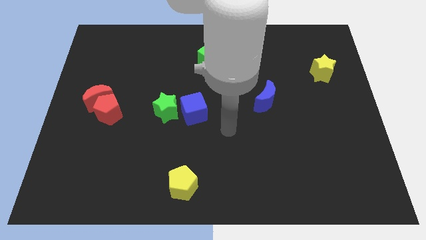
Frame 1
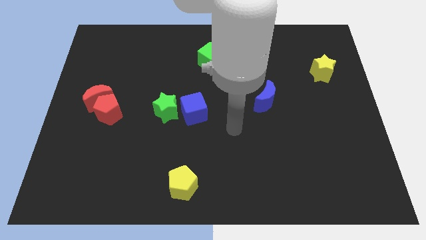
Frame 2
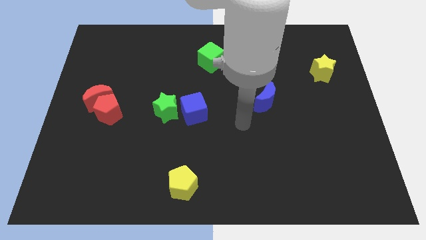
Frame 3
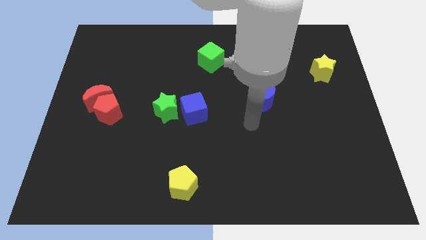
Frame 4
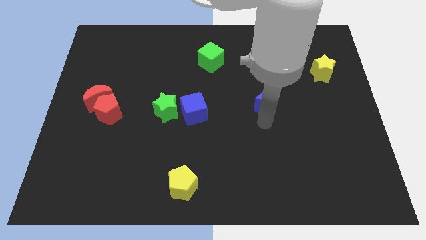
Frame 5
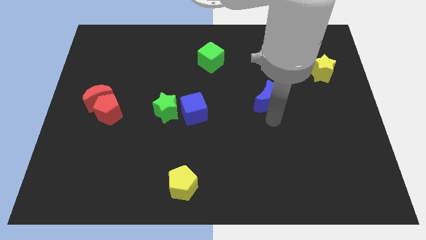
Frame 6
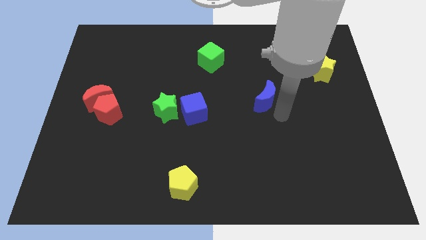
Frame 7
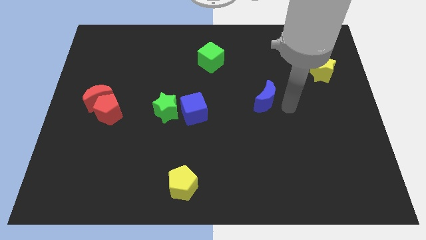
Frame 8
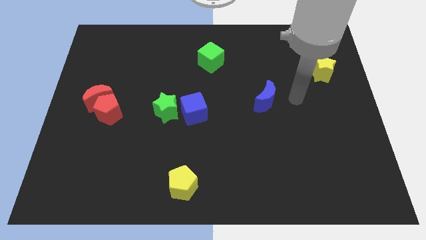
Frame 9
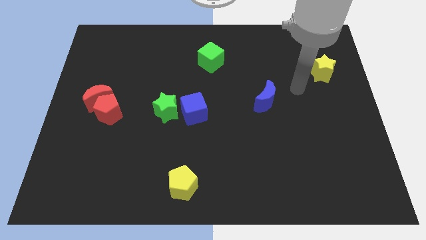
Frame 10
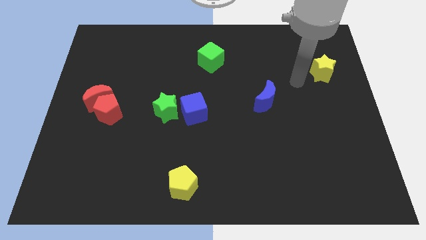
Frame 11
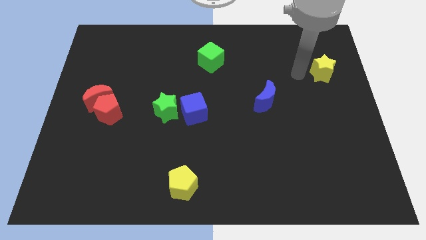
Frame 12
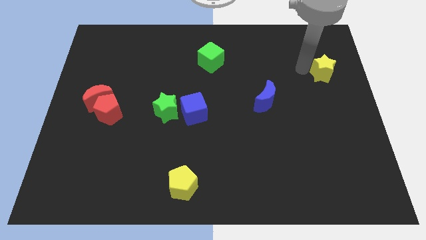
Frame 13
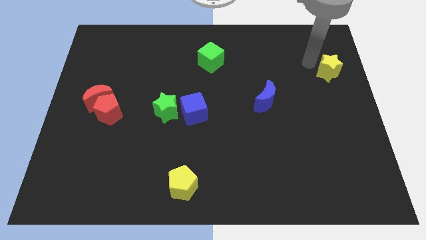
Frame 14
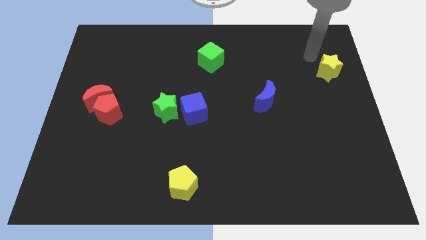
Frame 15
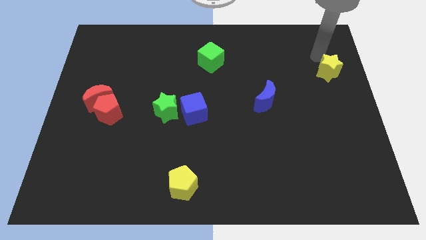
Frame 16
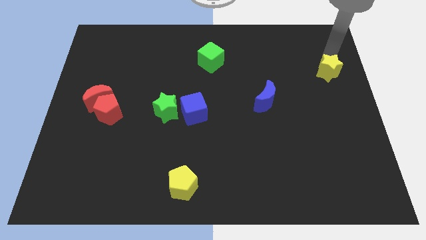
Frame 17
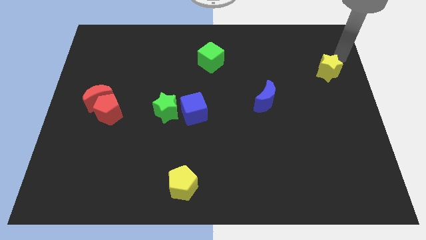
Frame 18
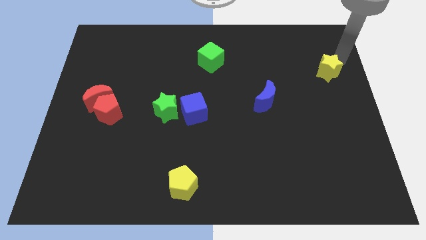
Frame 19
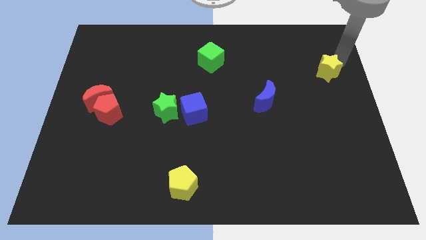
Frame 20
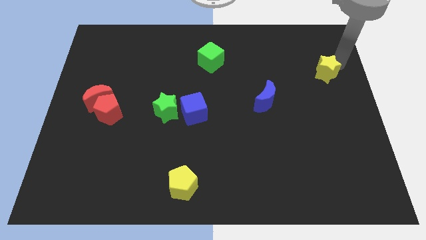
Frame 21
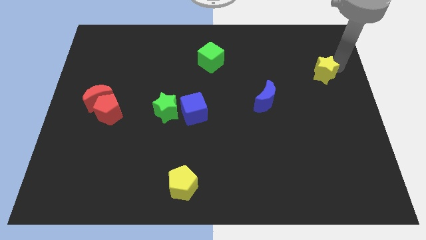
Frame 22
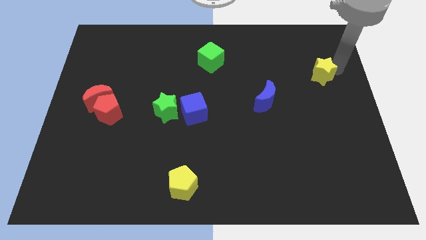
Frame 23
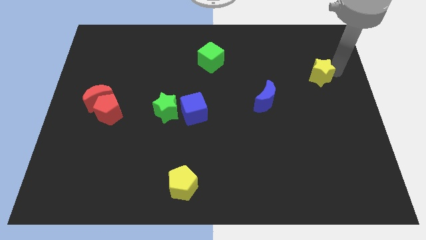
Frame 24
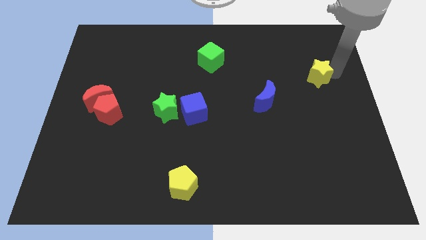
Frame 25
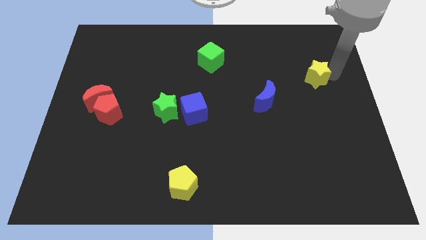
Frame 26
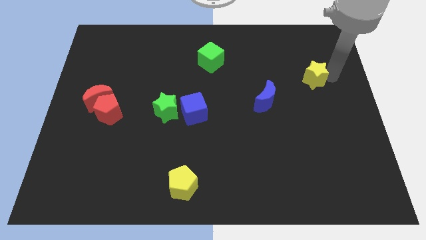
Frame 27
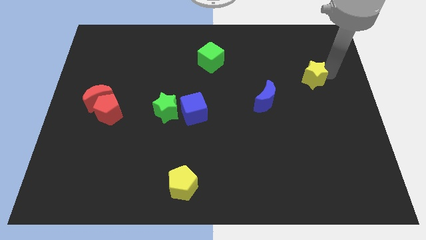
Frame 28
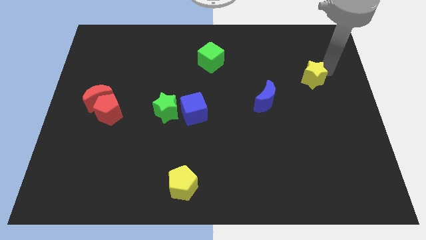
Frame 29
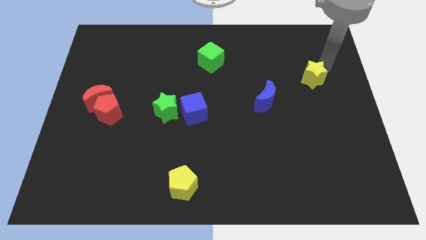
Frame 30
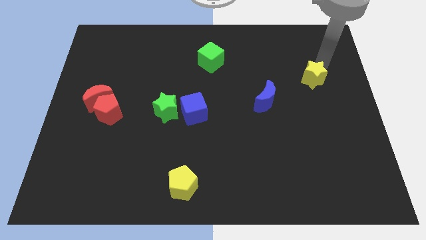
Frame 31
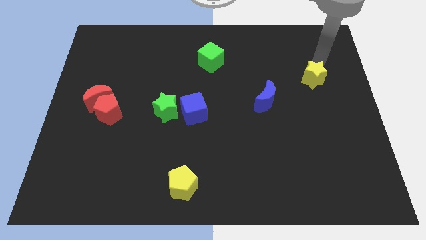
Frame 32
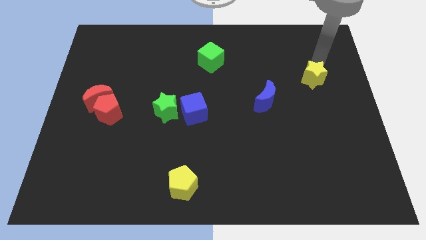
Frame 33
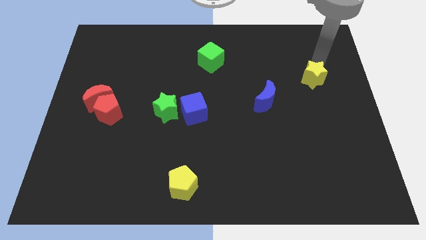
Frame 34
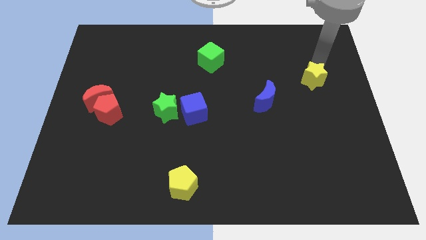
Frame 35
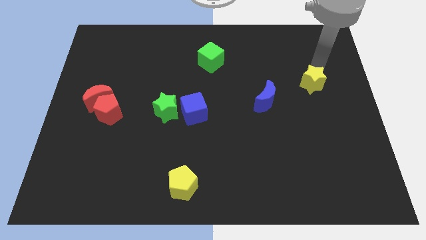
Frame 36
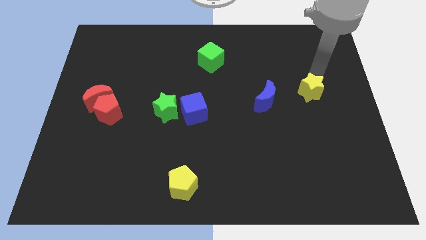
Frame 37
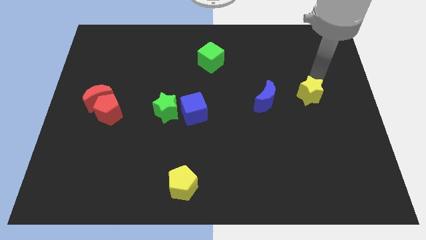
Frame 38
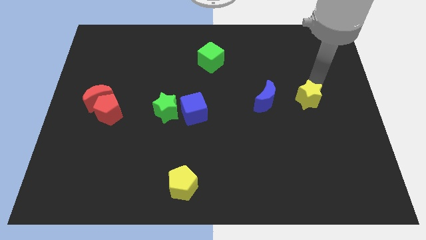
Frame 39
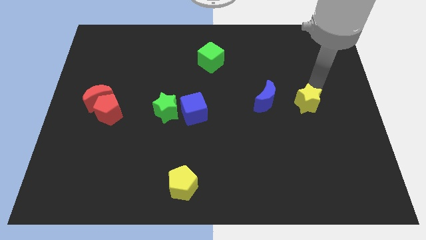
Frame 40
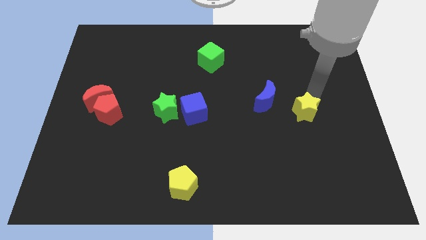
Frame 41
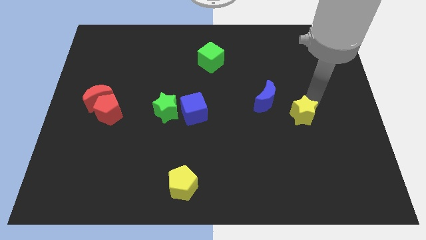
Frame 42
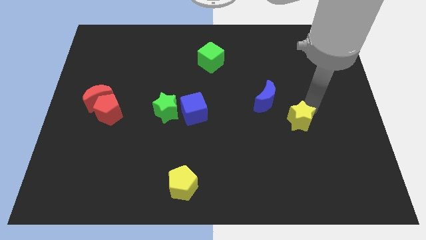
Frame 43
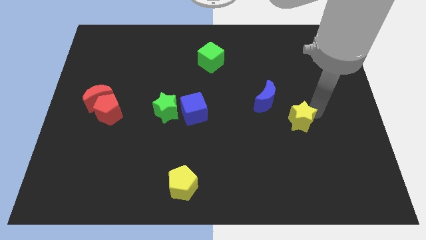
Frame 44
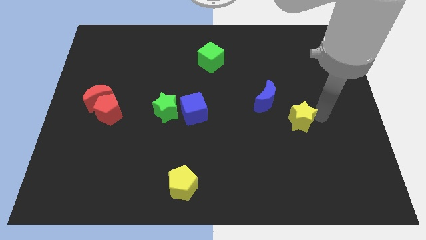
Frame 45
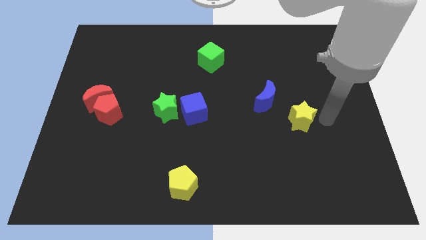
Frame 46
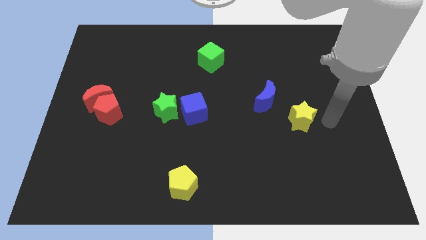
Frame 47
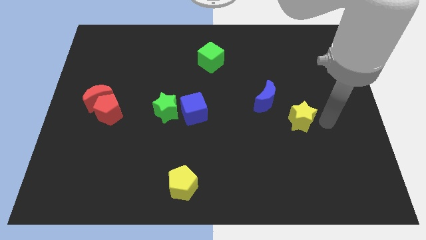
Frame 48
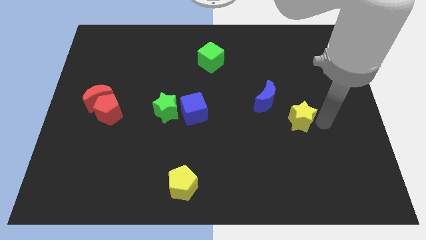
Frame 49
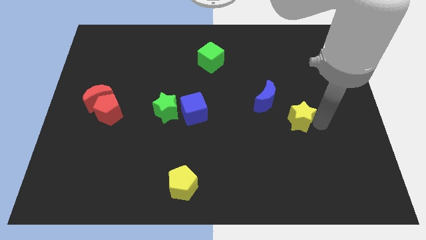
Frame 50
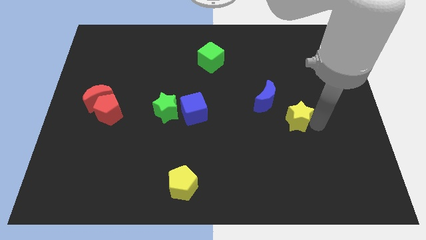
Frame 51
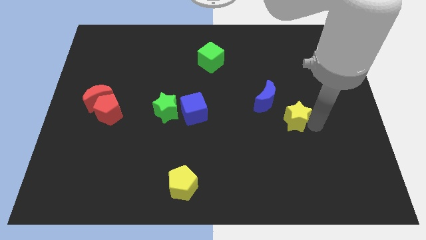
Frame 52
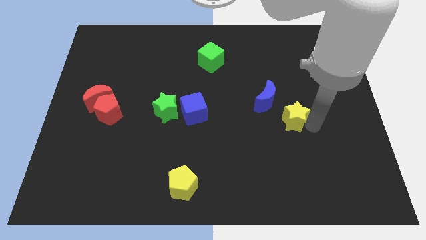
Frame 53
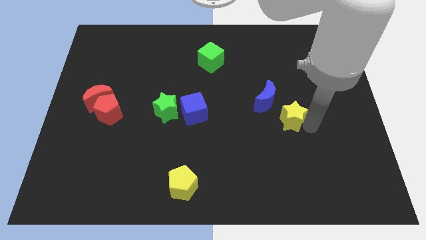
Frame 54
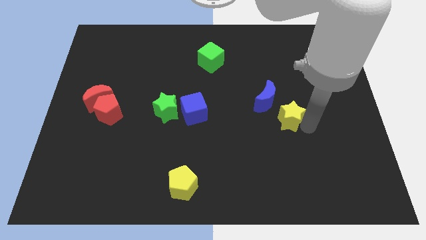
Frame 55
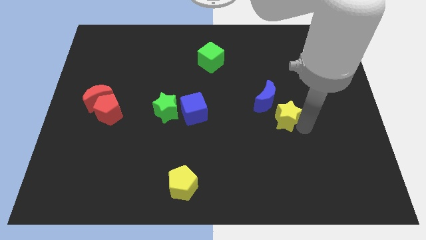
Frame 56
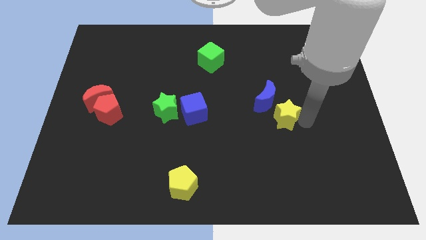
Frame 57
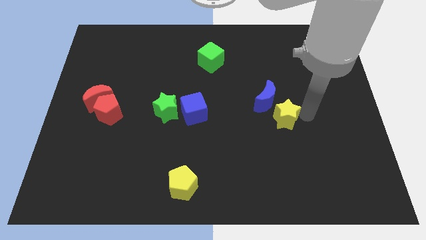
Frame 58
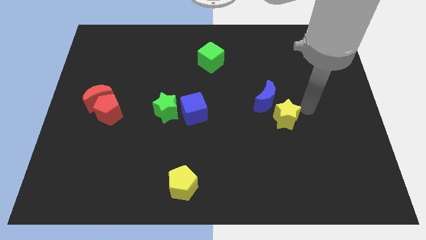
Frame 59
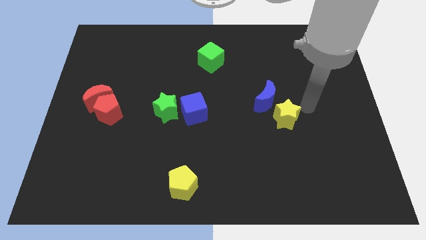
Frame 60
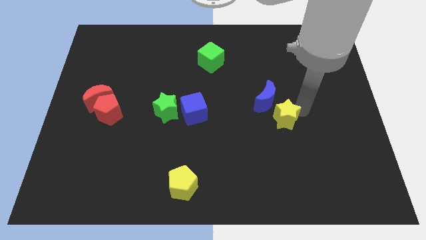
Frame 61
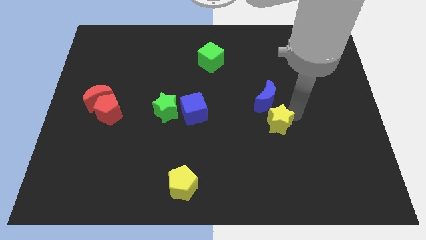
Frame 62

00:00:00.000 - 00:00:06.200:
move the yellow star diagonally downwards and to the left

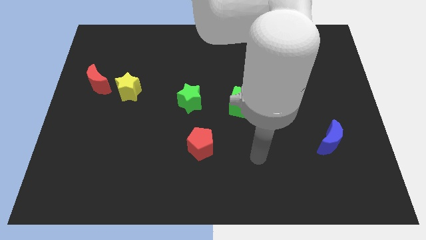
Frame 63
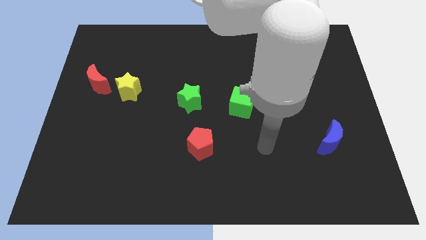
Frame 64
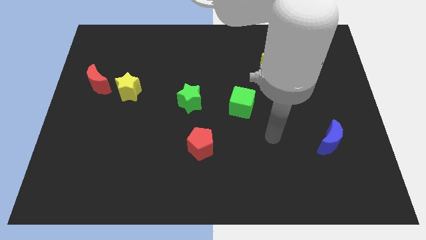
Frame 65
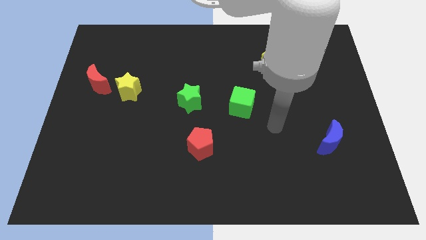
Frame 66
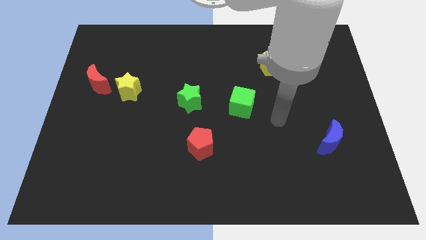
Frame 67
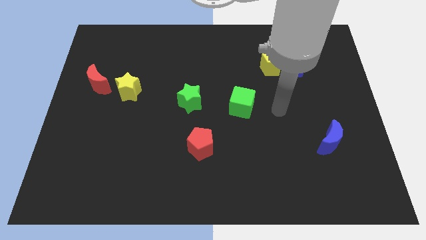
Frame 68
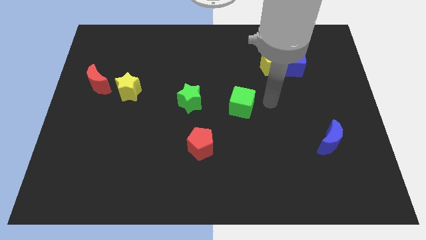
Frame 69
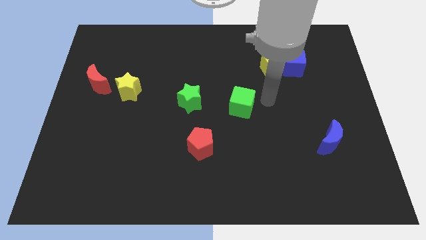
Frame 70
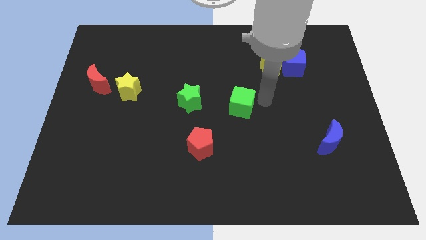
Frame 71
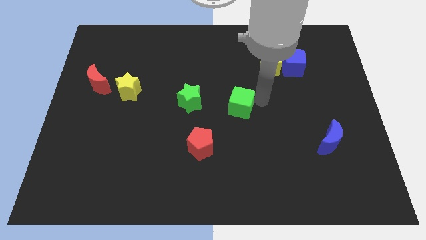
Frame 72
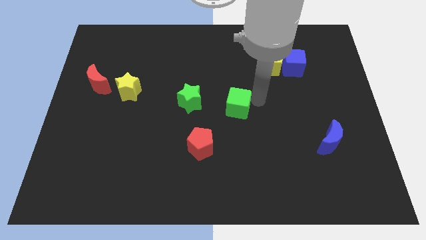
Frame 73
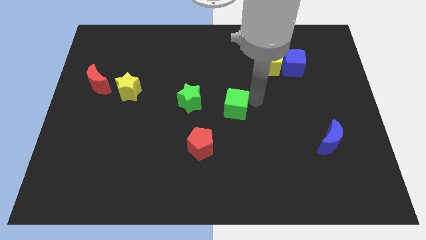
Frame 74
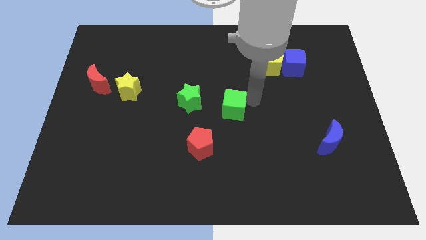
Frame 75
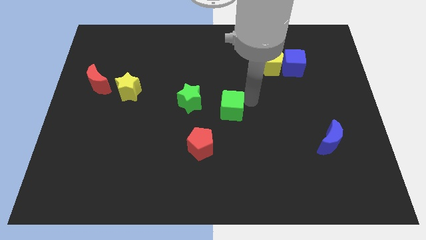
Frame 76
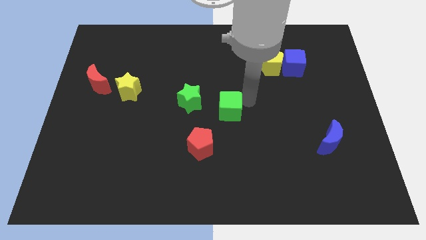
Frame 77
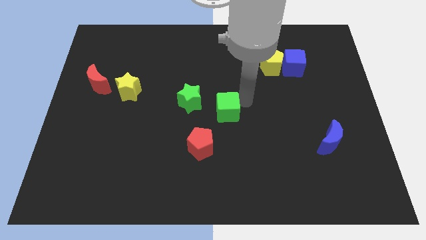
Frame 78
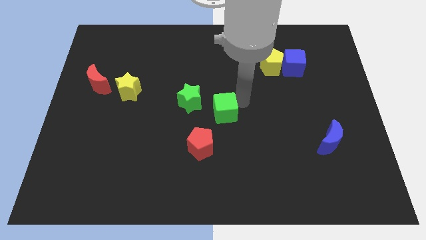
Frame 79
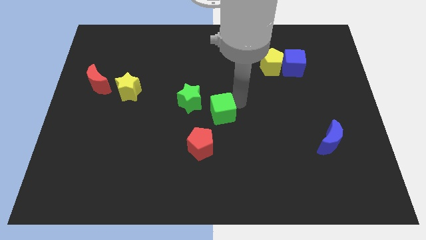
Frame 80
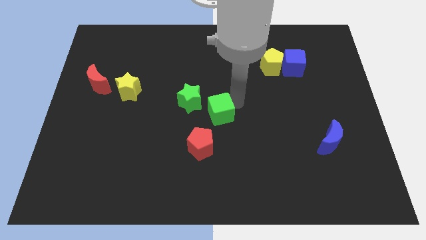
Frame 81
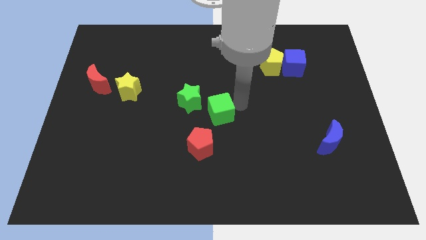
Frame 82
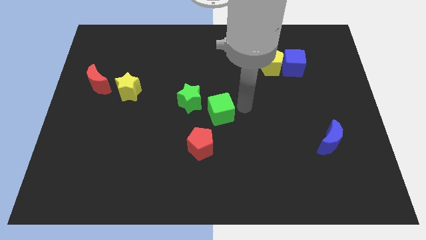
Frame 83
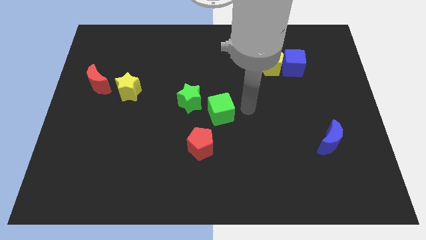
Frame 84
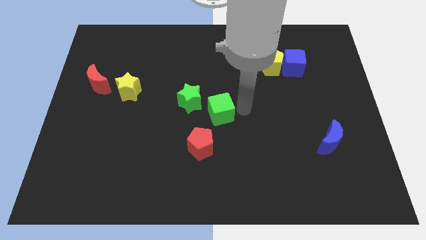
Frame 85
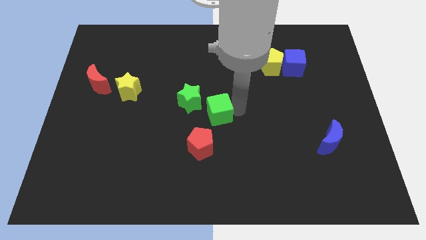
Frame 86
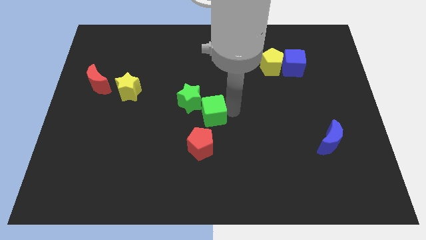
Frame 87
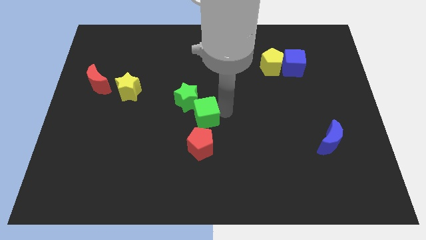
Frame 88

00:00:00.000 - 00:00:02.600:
push the green cube somewhat left
